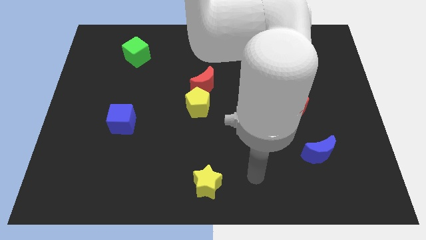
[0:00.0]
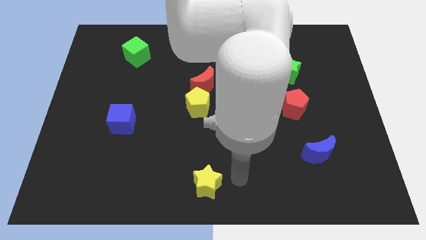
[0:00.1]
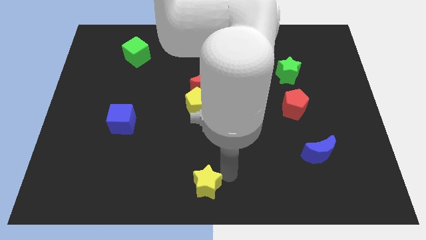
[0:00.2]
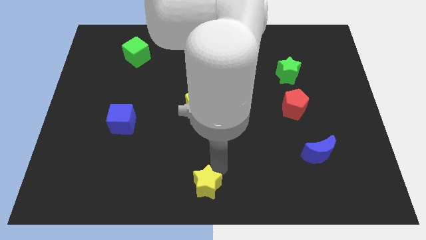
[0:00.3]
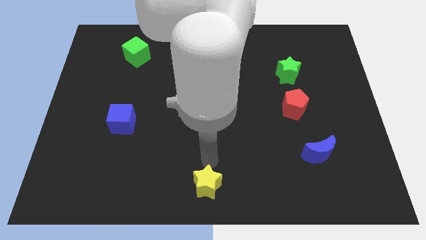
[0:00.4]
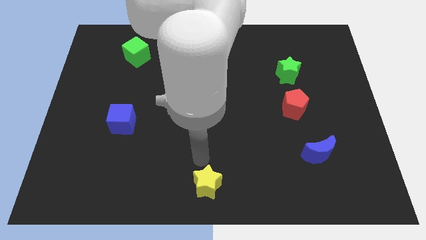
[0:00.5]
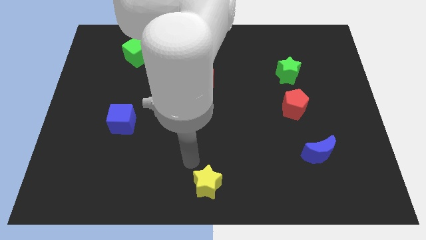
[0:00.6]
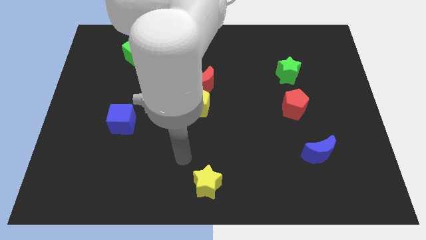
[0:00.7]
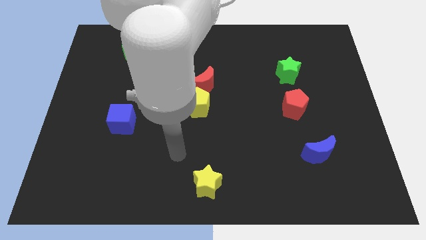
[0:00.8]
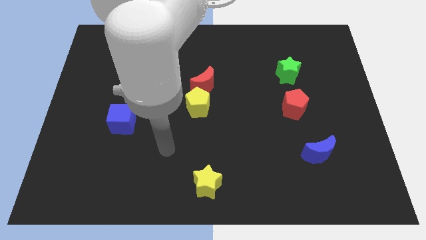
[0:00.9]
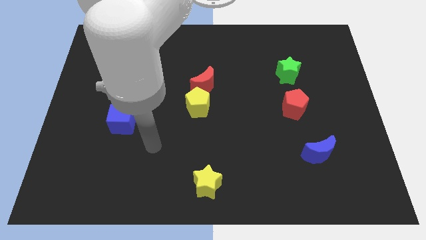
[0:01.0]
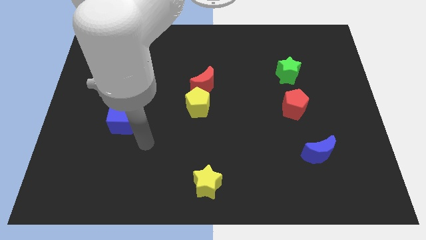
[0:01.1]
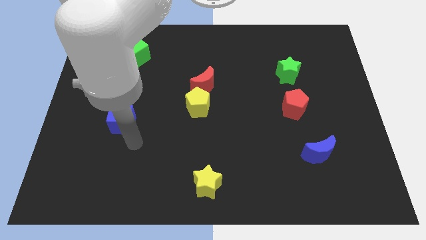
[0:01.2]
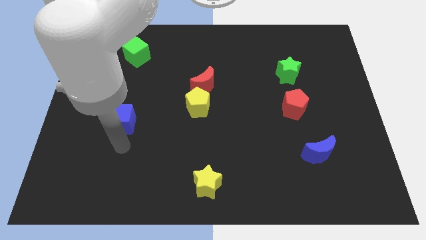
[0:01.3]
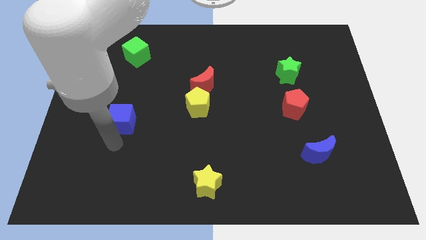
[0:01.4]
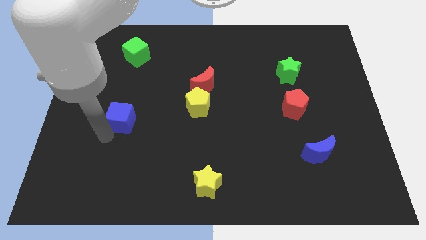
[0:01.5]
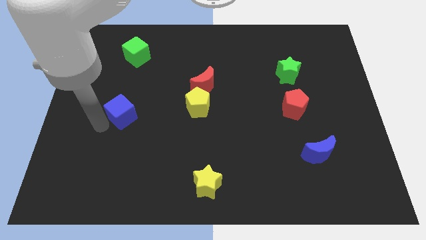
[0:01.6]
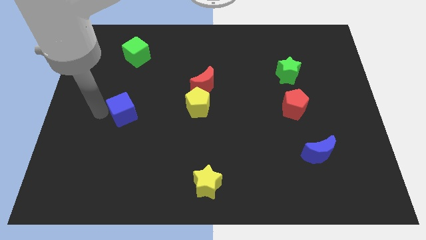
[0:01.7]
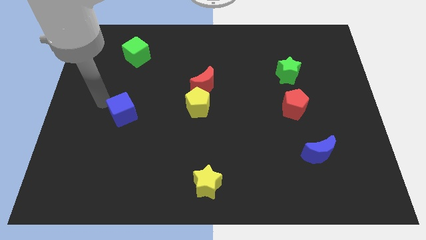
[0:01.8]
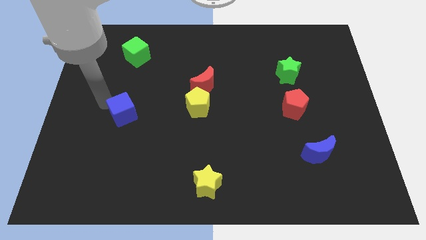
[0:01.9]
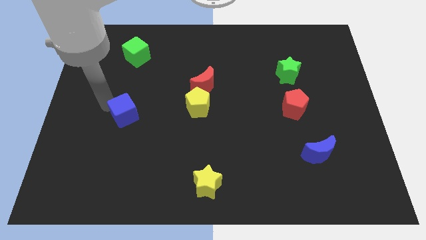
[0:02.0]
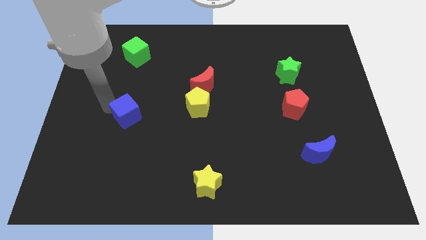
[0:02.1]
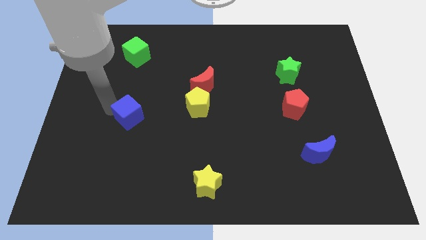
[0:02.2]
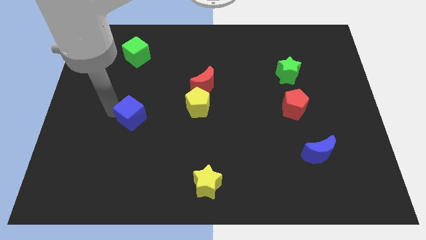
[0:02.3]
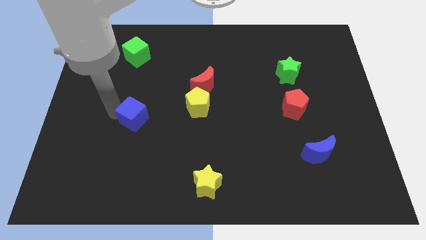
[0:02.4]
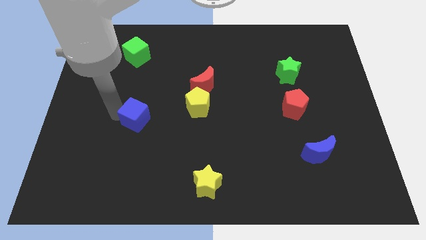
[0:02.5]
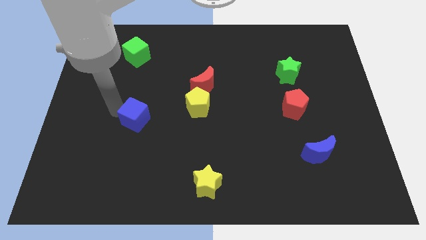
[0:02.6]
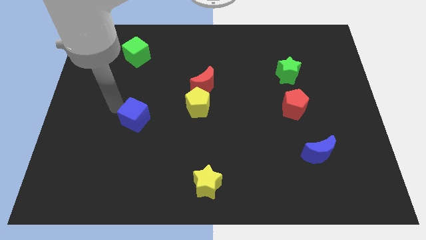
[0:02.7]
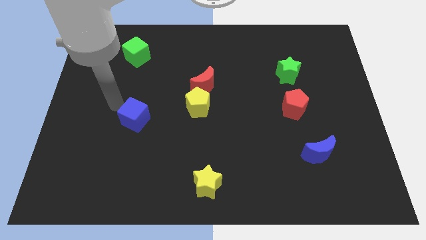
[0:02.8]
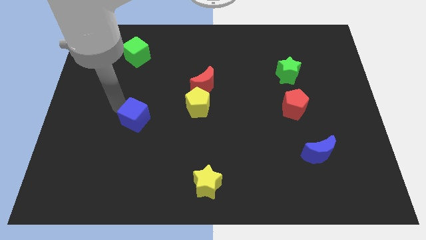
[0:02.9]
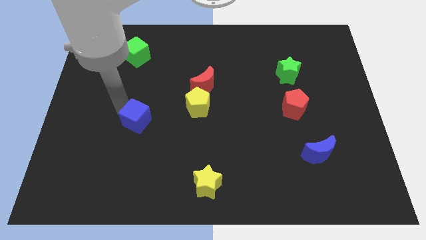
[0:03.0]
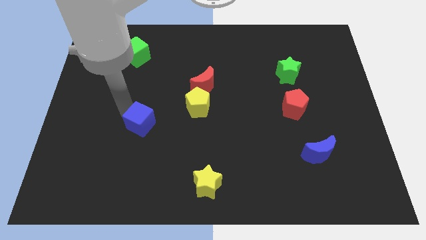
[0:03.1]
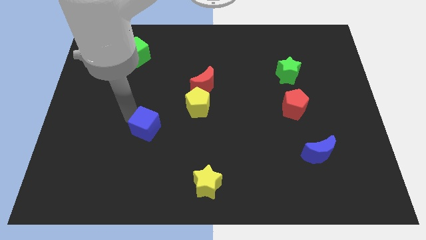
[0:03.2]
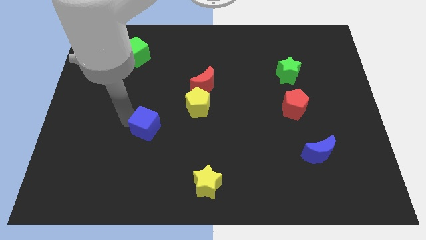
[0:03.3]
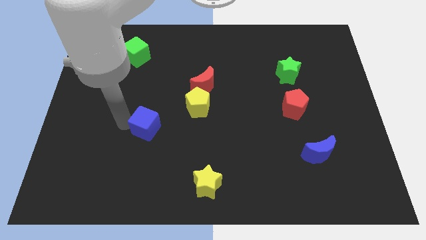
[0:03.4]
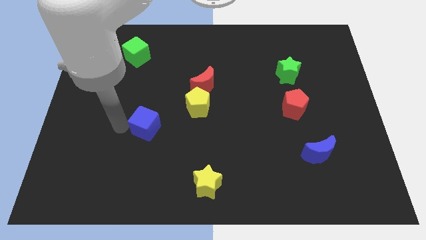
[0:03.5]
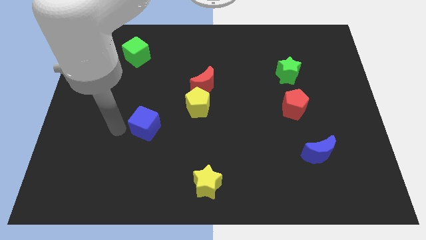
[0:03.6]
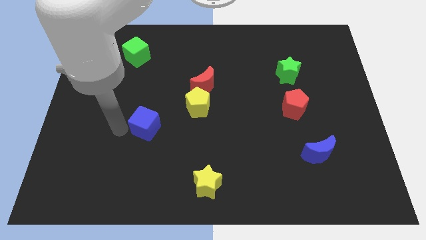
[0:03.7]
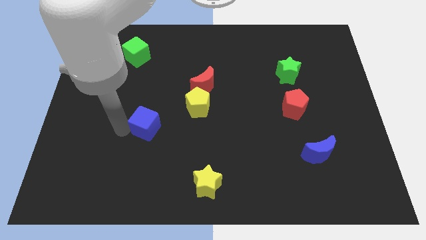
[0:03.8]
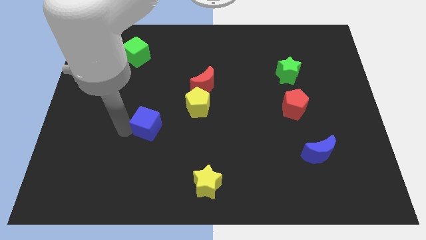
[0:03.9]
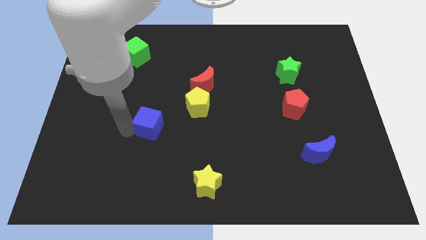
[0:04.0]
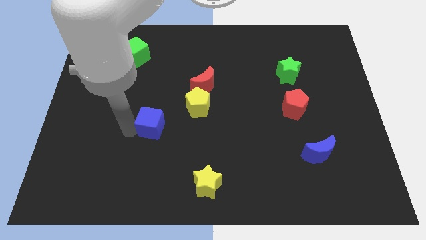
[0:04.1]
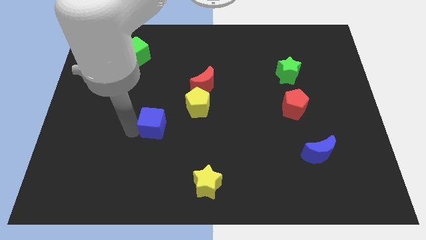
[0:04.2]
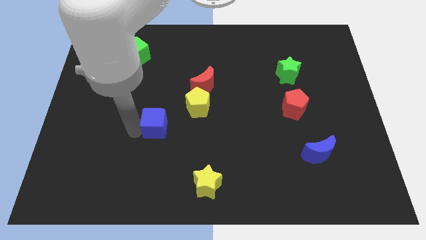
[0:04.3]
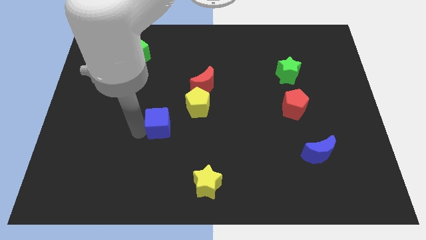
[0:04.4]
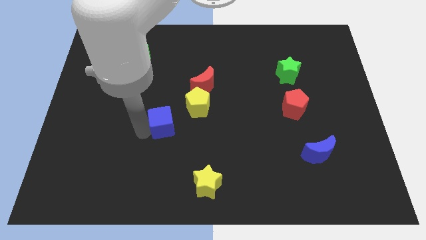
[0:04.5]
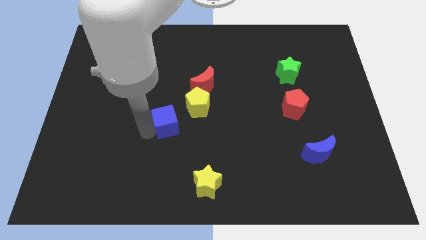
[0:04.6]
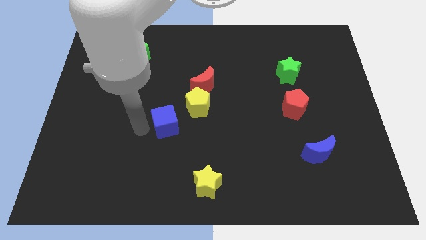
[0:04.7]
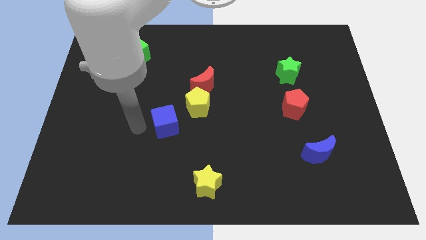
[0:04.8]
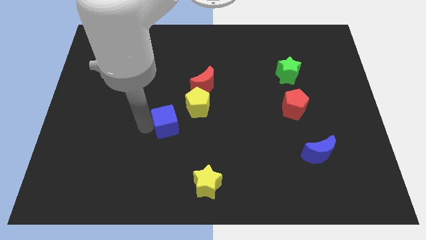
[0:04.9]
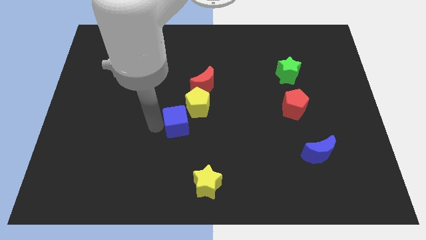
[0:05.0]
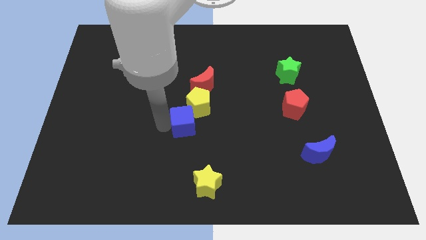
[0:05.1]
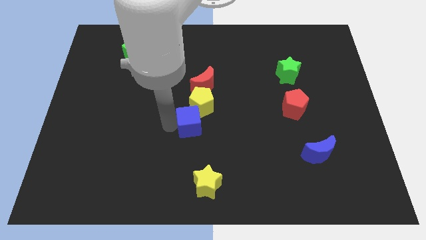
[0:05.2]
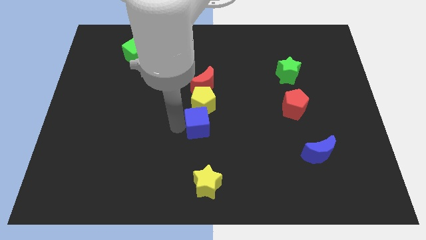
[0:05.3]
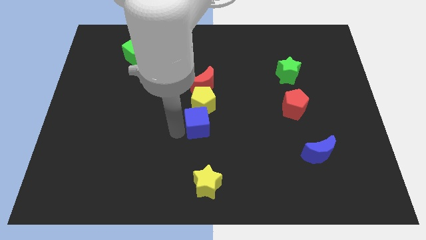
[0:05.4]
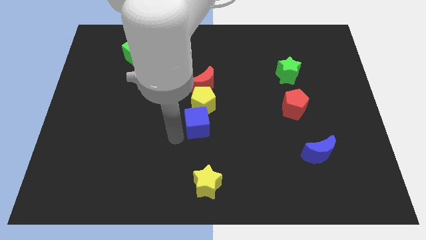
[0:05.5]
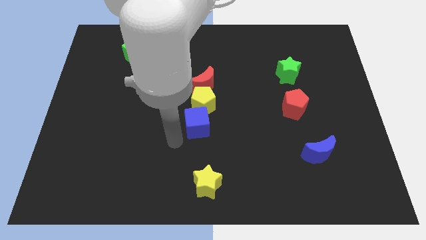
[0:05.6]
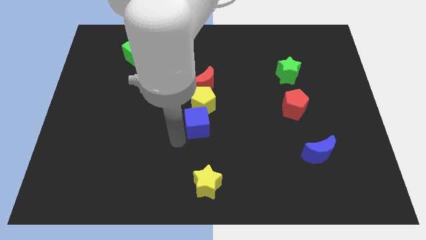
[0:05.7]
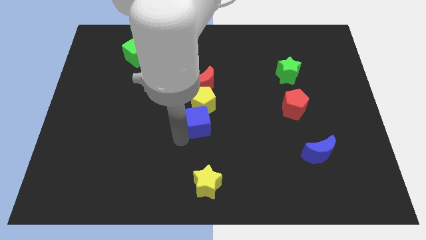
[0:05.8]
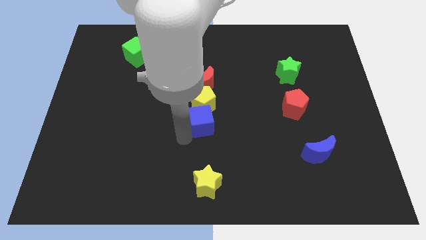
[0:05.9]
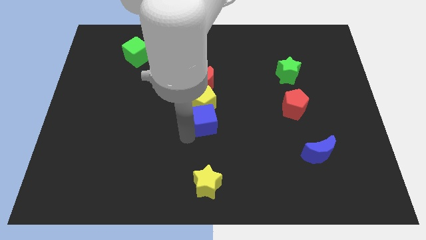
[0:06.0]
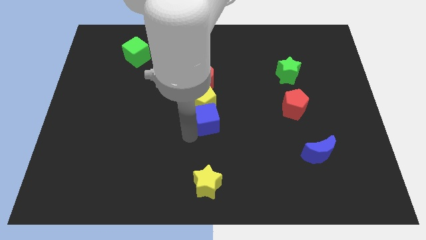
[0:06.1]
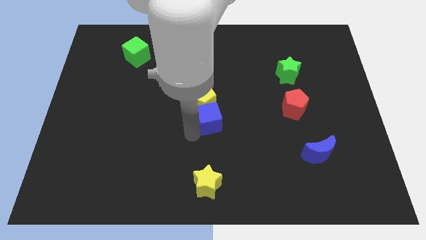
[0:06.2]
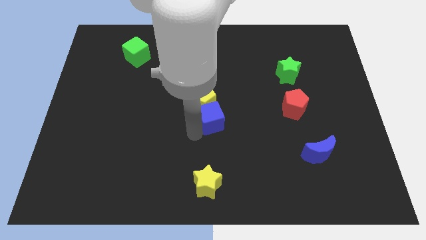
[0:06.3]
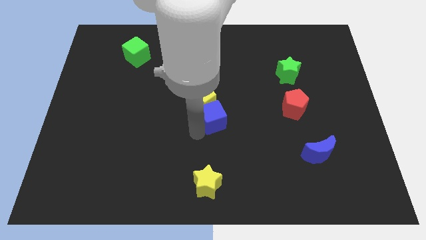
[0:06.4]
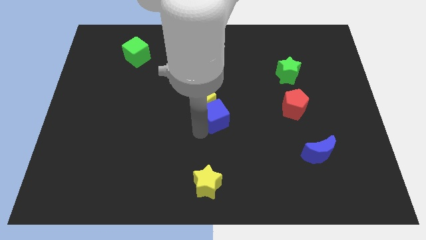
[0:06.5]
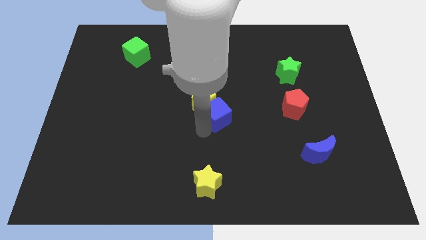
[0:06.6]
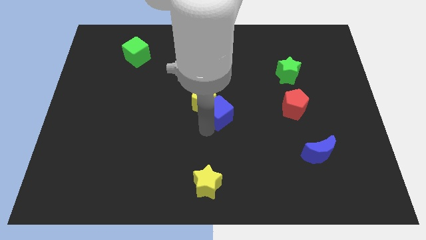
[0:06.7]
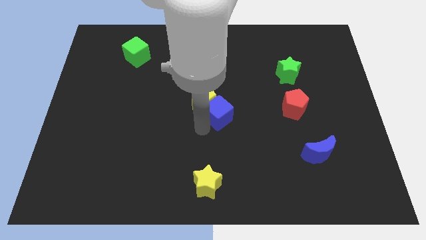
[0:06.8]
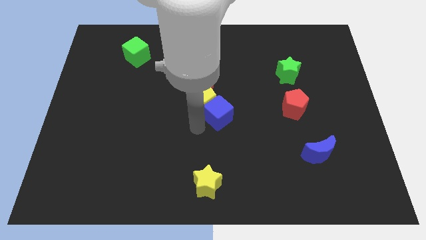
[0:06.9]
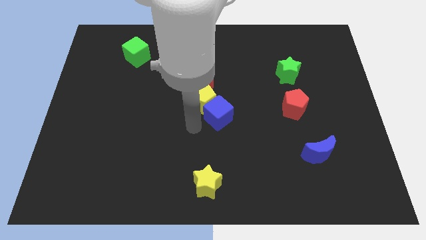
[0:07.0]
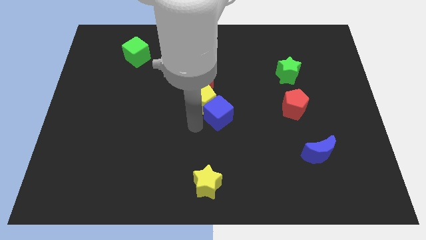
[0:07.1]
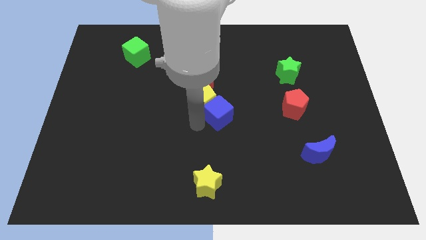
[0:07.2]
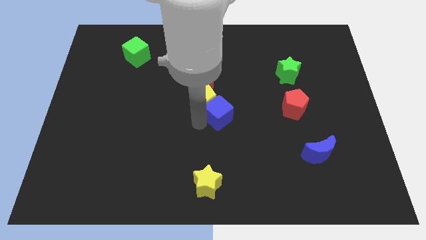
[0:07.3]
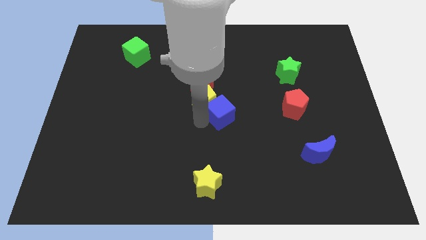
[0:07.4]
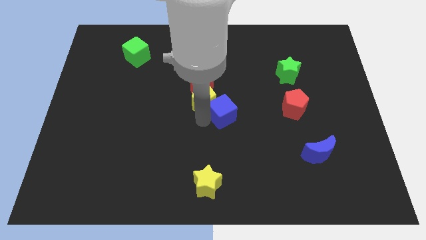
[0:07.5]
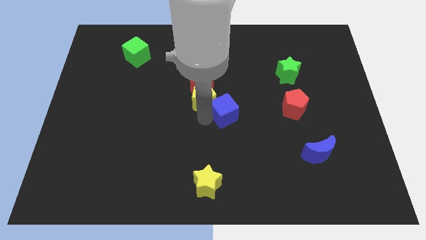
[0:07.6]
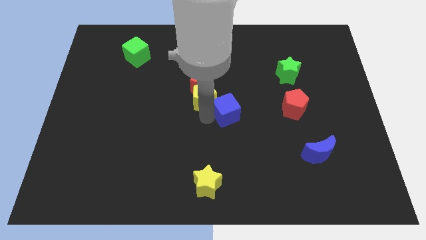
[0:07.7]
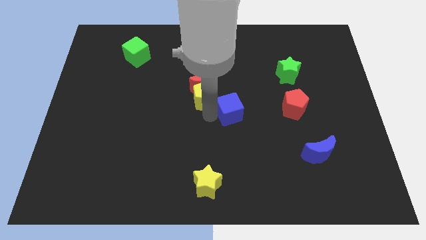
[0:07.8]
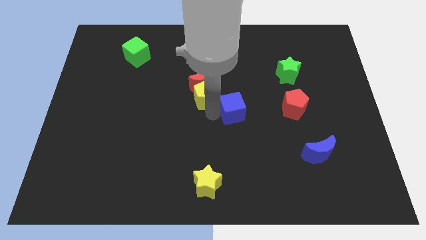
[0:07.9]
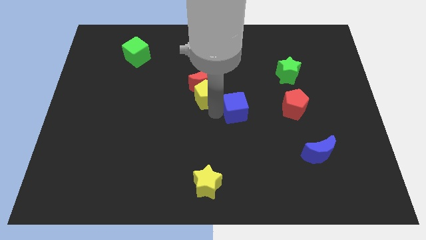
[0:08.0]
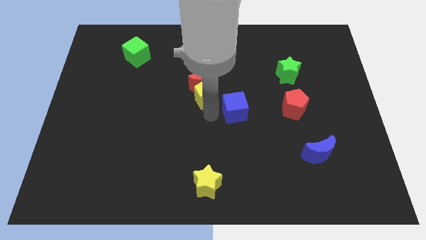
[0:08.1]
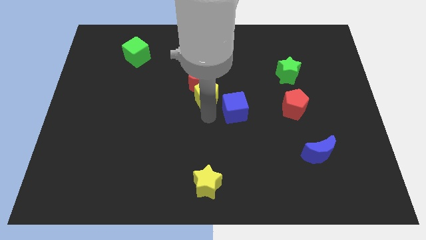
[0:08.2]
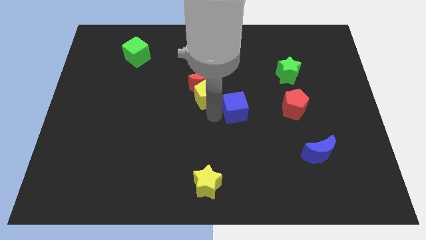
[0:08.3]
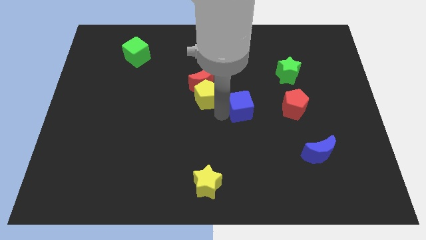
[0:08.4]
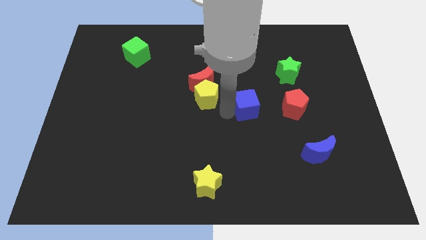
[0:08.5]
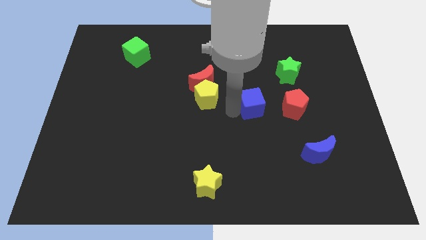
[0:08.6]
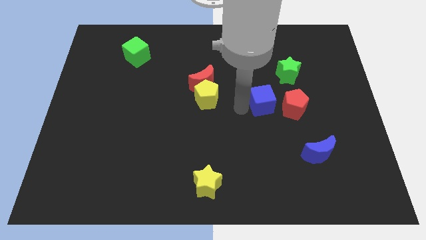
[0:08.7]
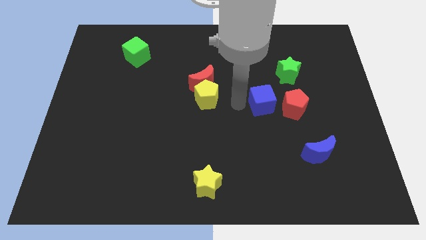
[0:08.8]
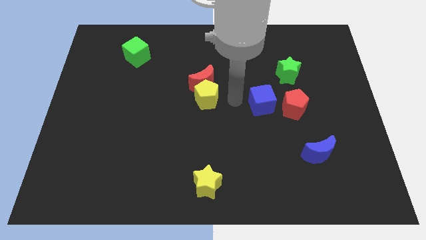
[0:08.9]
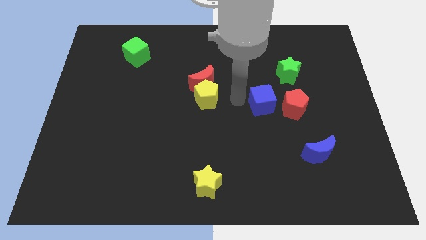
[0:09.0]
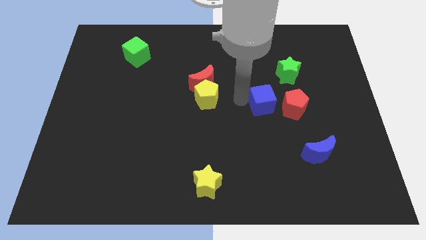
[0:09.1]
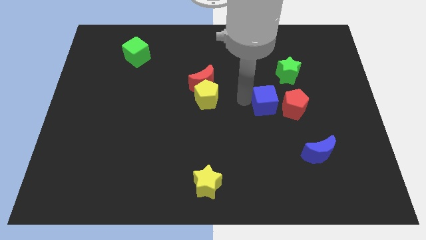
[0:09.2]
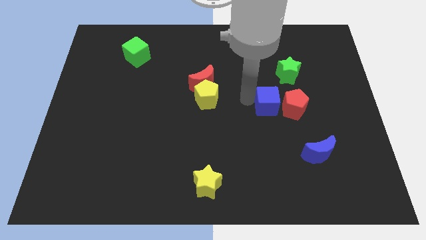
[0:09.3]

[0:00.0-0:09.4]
put the blue cube next to the red pentagon
